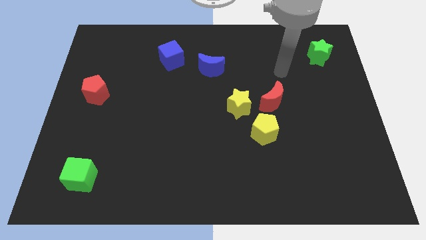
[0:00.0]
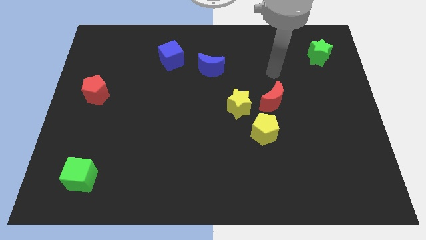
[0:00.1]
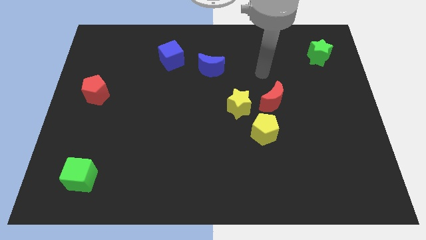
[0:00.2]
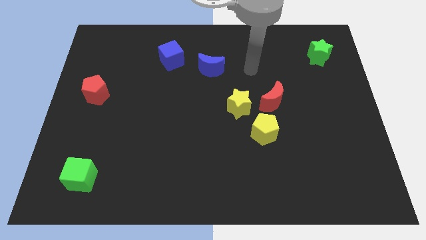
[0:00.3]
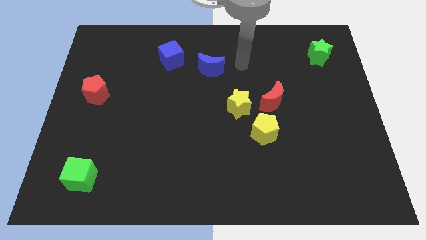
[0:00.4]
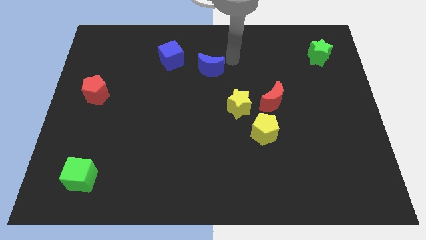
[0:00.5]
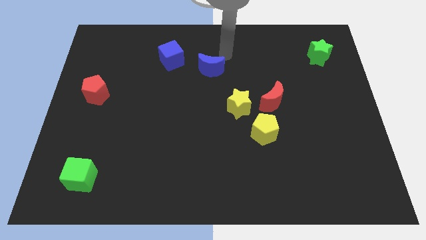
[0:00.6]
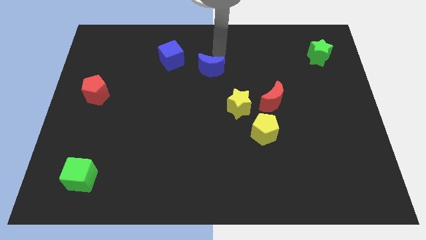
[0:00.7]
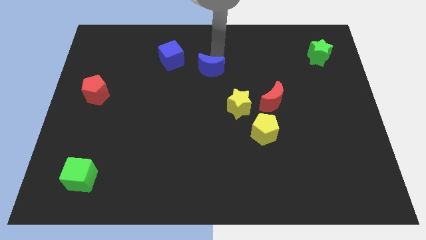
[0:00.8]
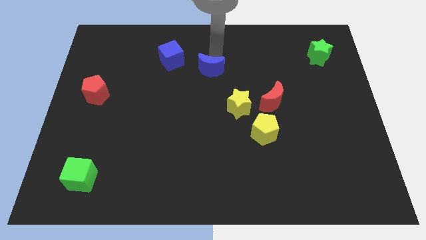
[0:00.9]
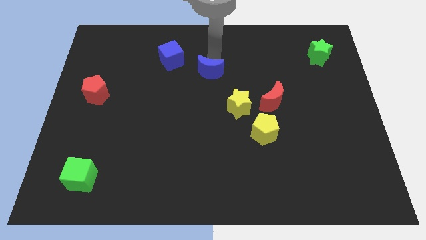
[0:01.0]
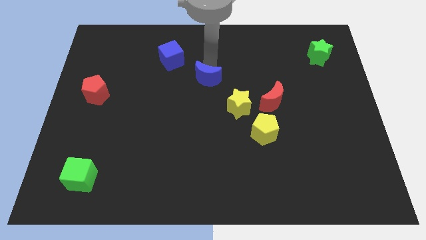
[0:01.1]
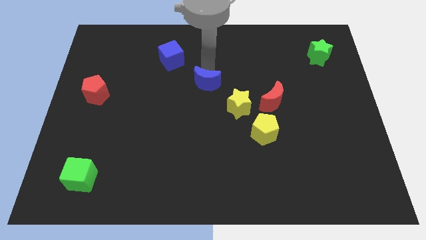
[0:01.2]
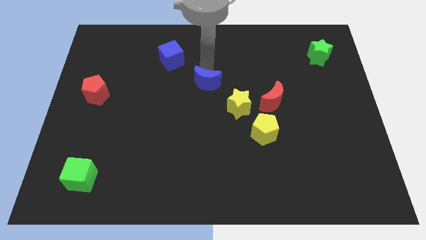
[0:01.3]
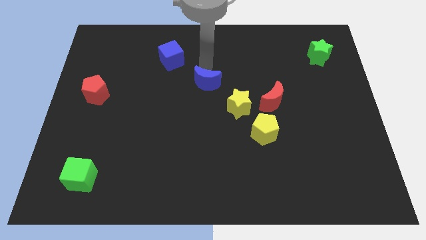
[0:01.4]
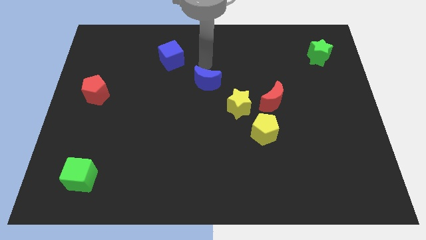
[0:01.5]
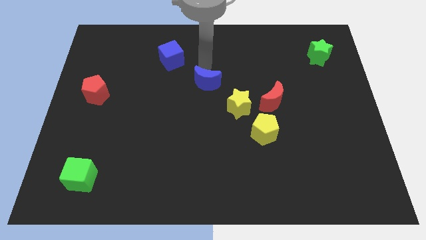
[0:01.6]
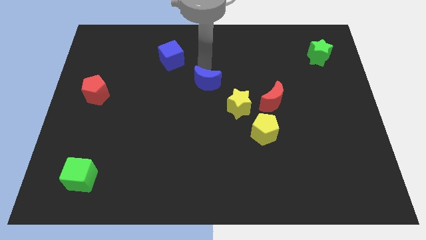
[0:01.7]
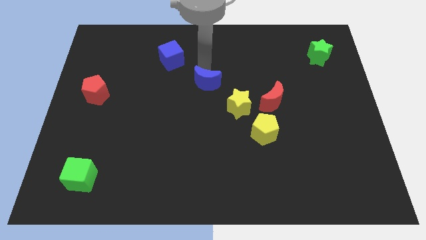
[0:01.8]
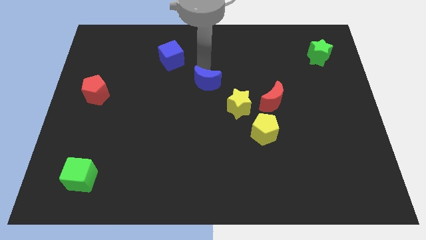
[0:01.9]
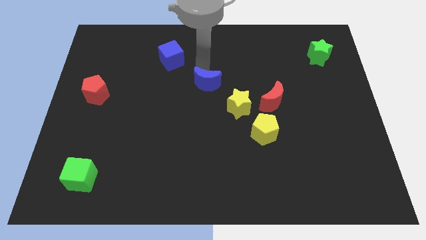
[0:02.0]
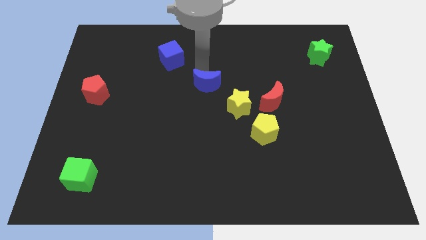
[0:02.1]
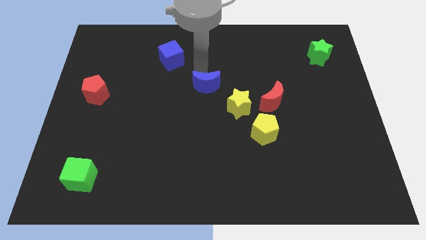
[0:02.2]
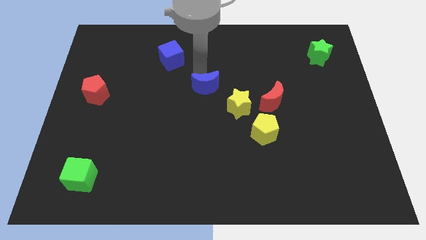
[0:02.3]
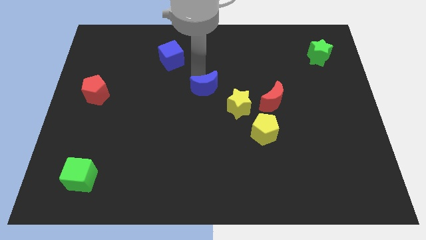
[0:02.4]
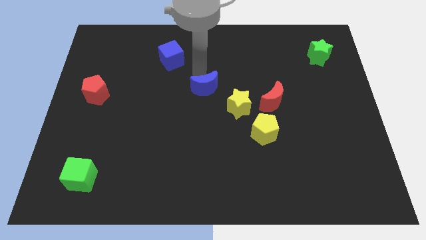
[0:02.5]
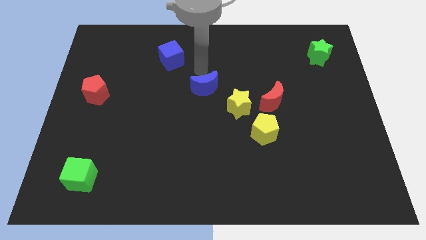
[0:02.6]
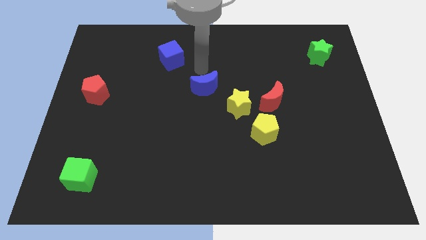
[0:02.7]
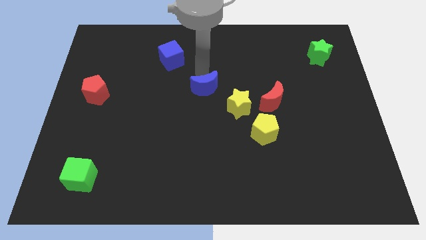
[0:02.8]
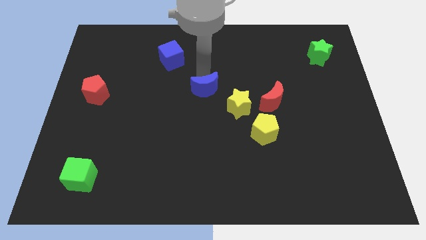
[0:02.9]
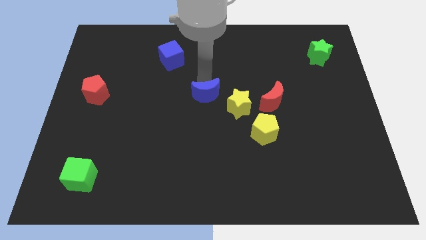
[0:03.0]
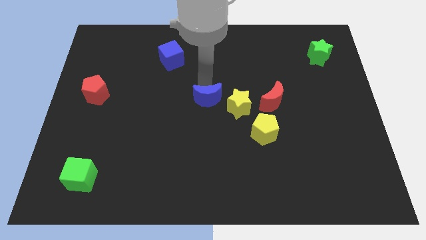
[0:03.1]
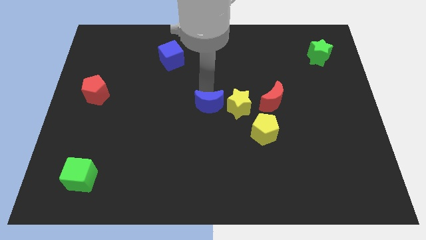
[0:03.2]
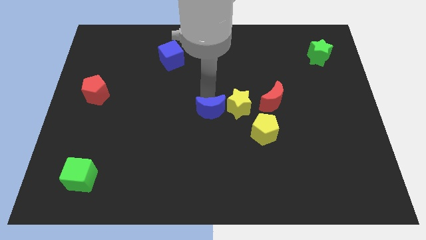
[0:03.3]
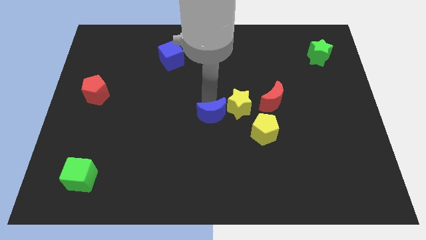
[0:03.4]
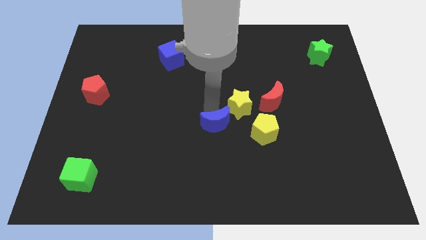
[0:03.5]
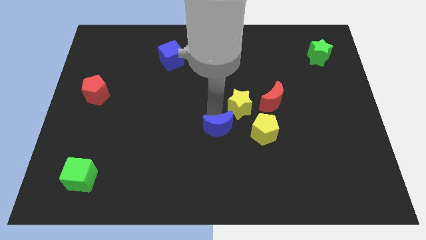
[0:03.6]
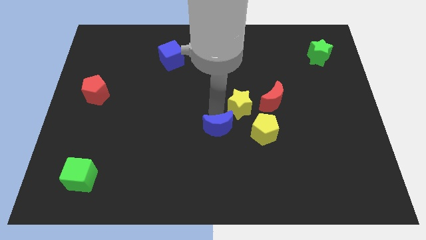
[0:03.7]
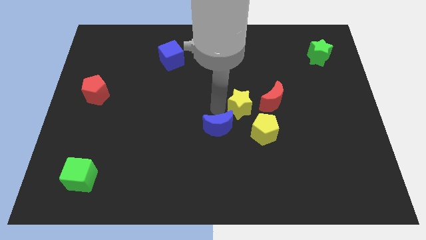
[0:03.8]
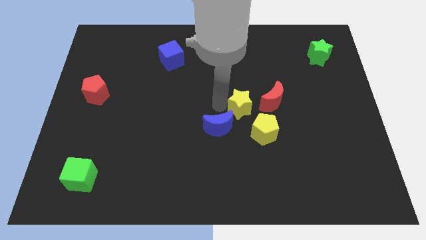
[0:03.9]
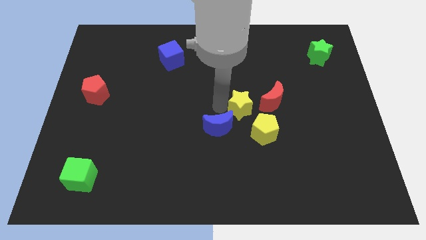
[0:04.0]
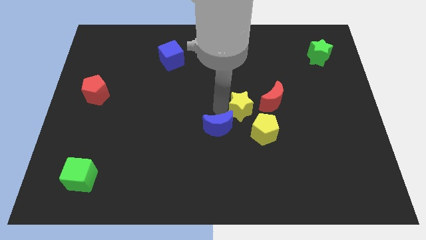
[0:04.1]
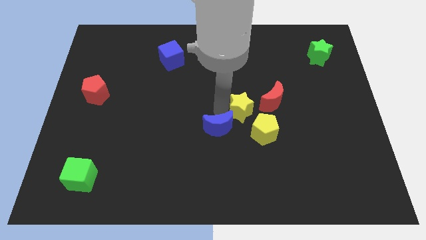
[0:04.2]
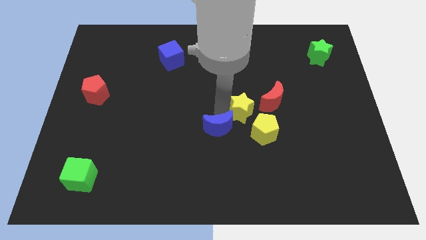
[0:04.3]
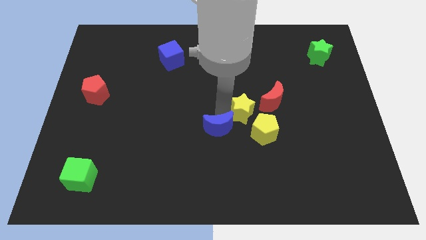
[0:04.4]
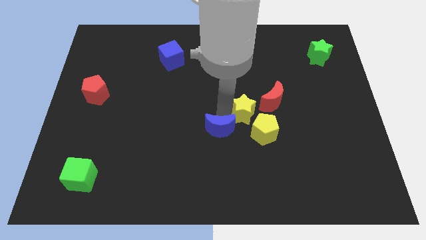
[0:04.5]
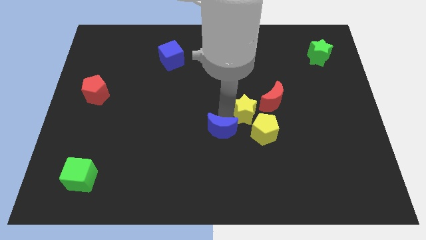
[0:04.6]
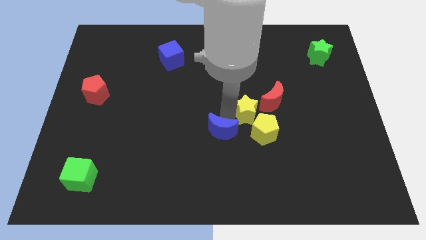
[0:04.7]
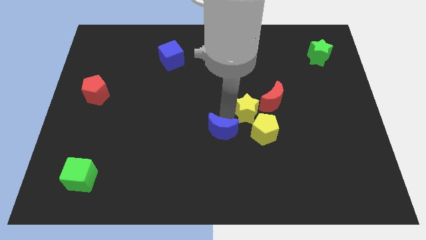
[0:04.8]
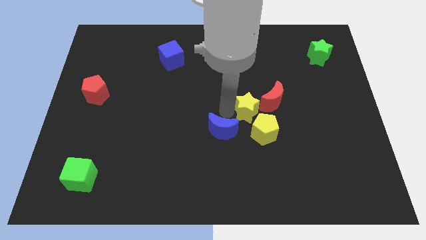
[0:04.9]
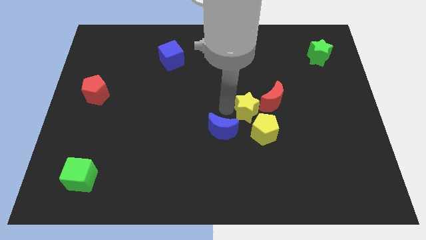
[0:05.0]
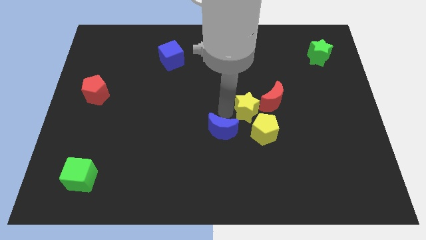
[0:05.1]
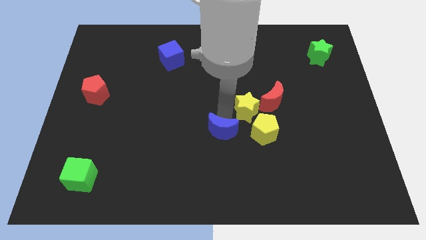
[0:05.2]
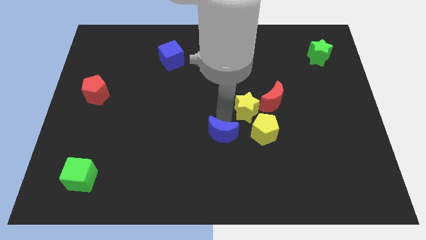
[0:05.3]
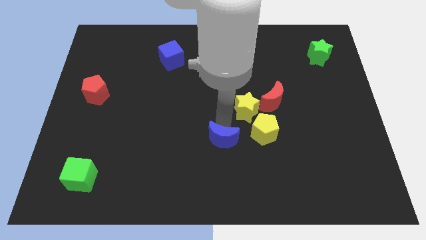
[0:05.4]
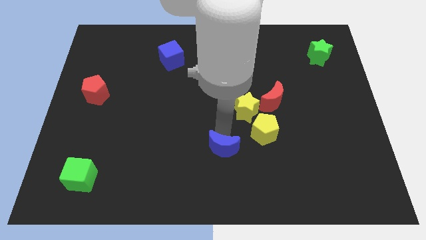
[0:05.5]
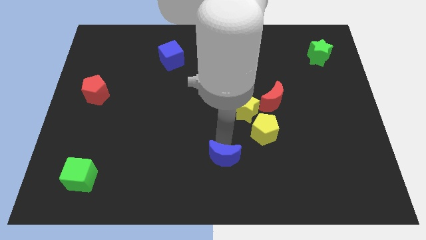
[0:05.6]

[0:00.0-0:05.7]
push the blue moon to the bottom side

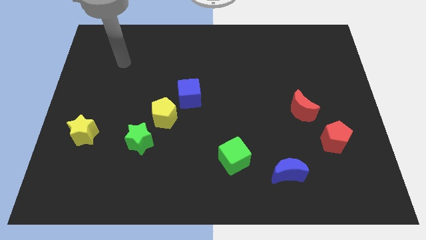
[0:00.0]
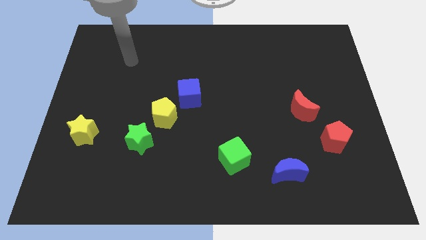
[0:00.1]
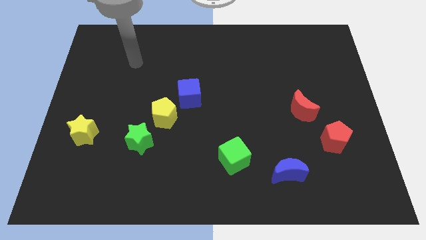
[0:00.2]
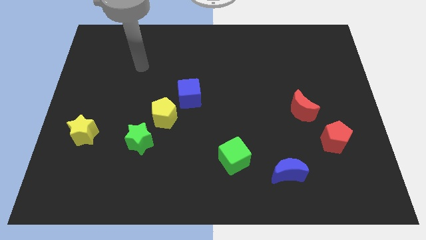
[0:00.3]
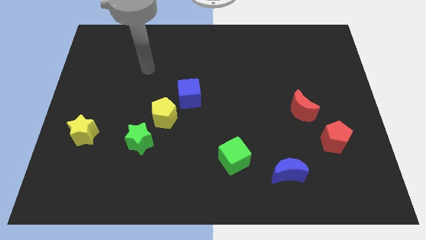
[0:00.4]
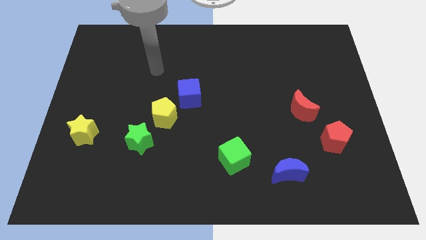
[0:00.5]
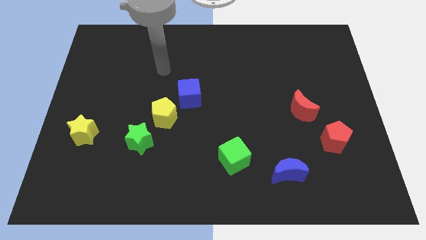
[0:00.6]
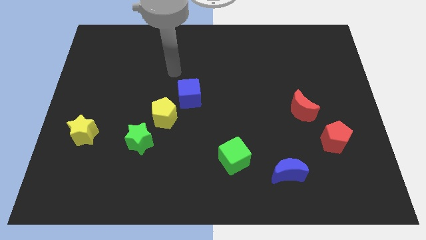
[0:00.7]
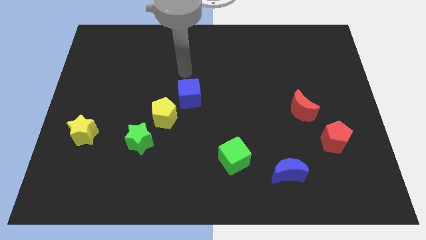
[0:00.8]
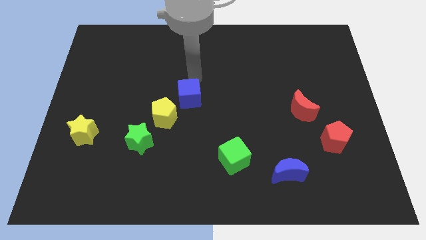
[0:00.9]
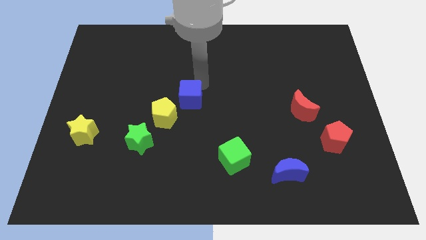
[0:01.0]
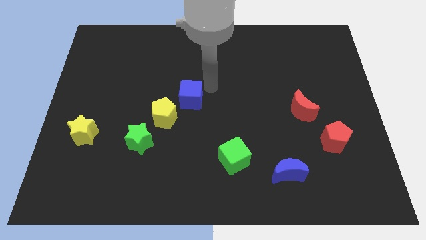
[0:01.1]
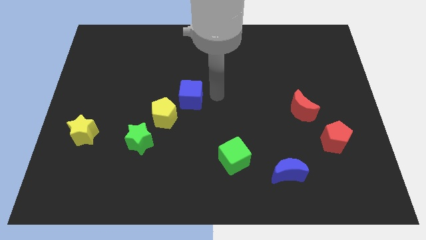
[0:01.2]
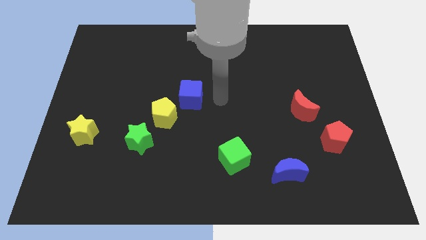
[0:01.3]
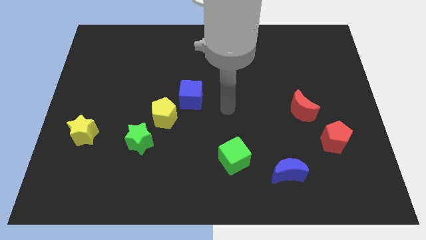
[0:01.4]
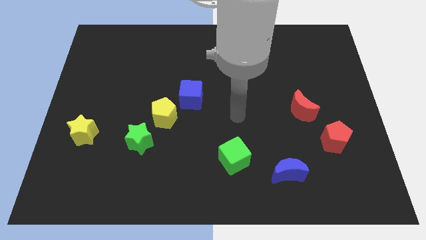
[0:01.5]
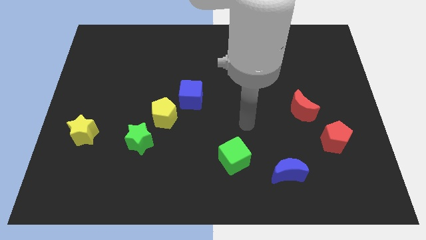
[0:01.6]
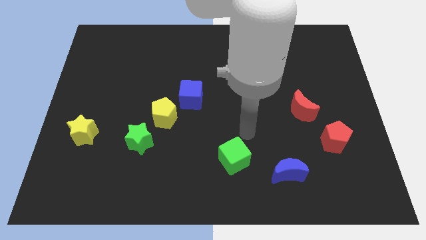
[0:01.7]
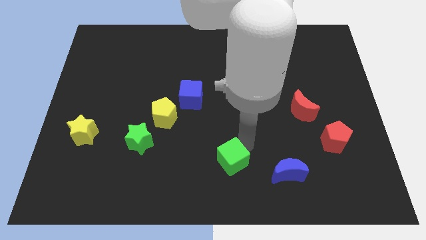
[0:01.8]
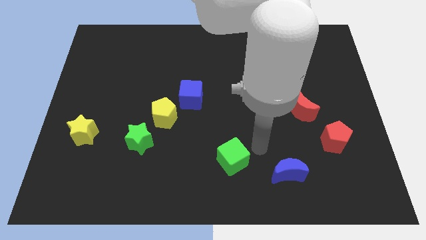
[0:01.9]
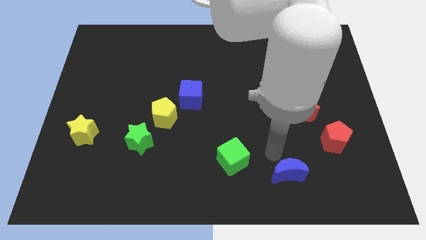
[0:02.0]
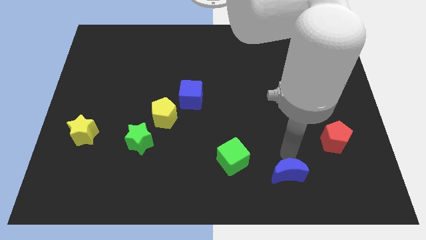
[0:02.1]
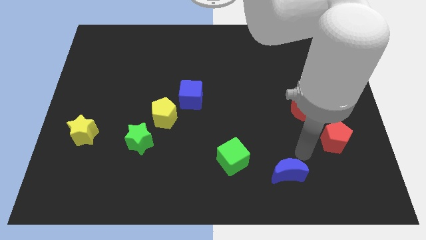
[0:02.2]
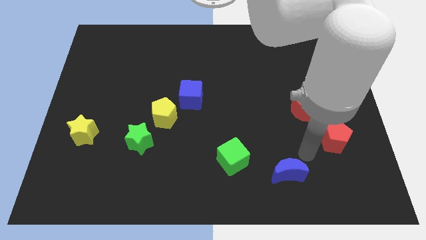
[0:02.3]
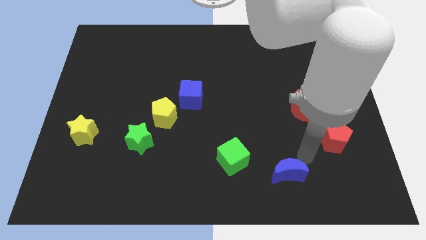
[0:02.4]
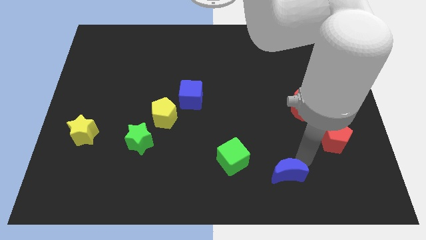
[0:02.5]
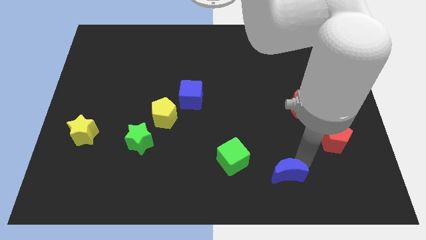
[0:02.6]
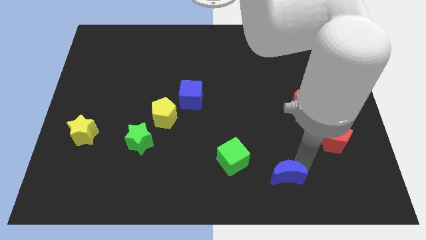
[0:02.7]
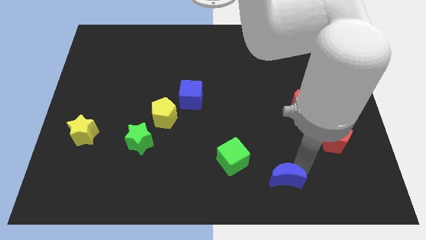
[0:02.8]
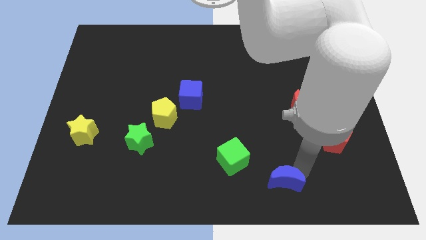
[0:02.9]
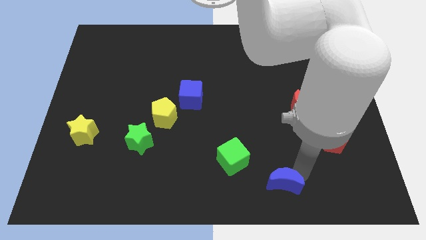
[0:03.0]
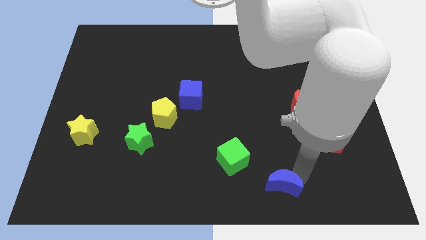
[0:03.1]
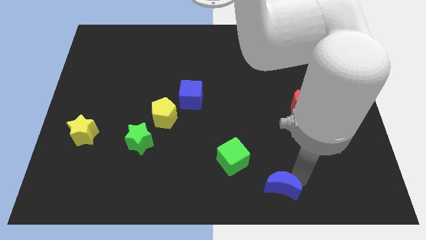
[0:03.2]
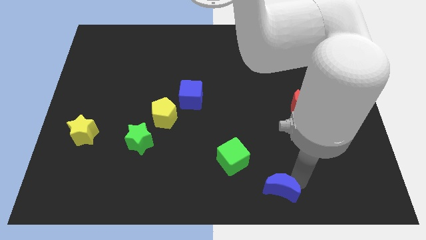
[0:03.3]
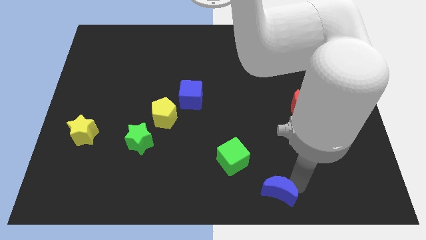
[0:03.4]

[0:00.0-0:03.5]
slide the blue moon to the bottom
